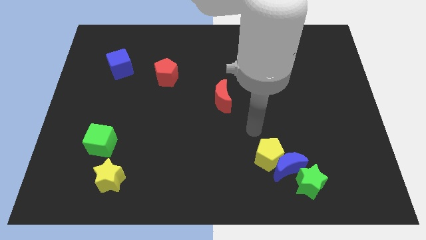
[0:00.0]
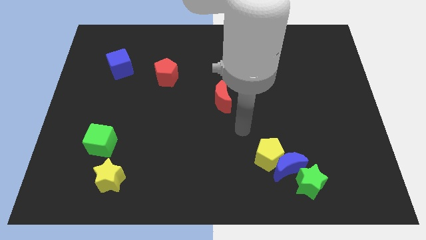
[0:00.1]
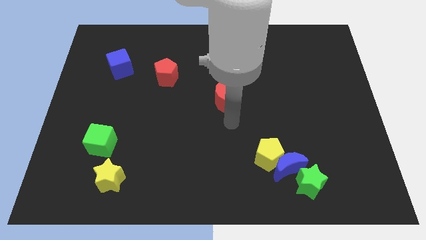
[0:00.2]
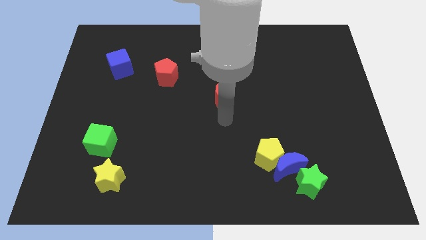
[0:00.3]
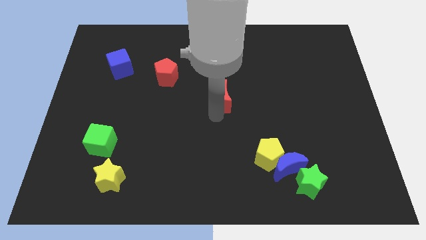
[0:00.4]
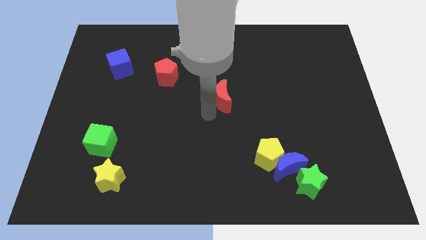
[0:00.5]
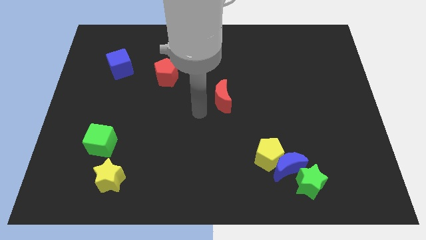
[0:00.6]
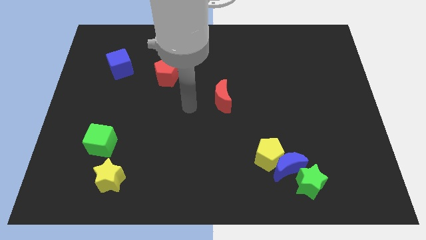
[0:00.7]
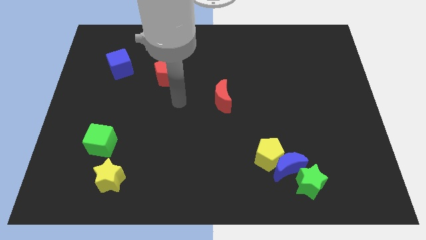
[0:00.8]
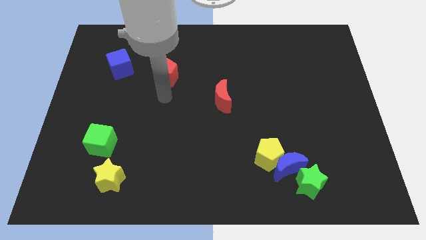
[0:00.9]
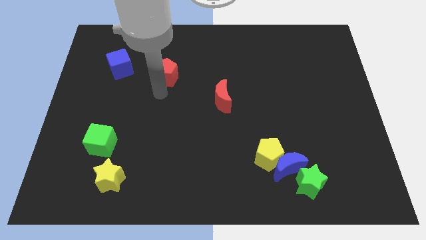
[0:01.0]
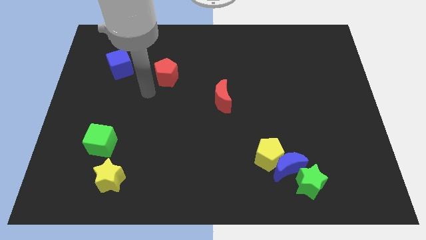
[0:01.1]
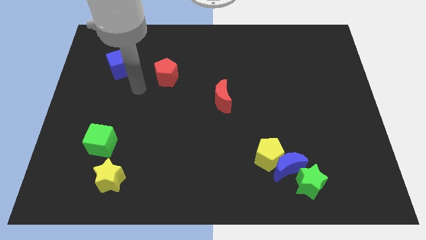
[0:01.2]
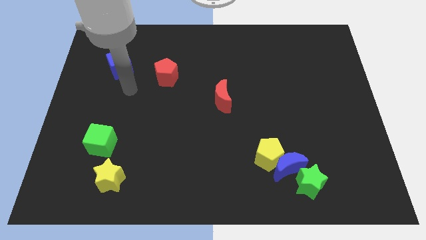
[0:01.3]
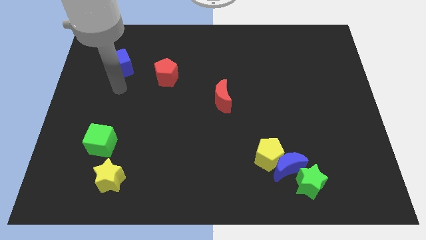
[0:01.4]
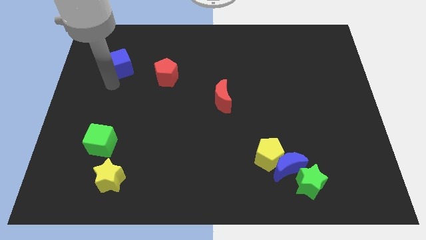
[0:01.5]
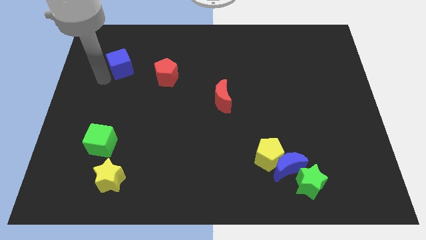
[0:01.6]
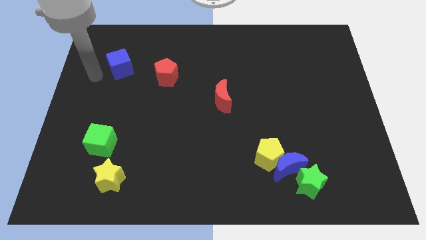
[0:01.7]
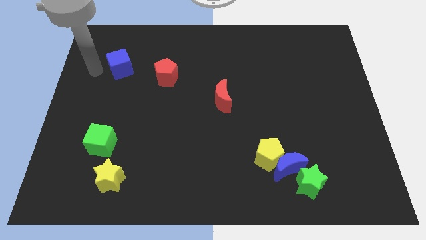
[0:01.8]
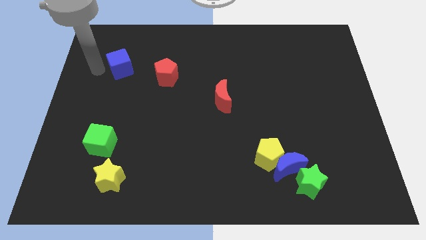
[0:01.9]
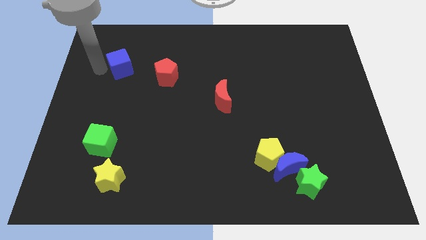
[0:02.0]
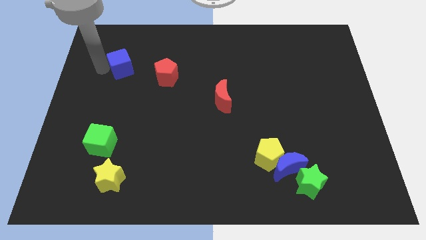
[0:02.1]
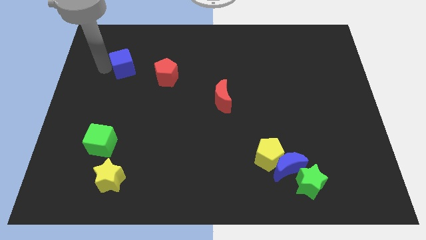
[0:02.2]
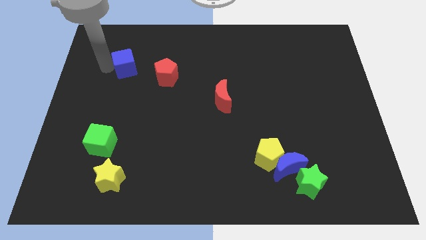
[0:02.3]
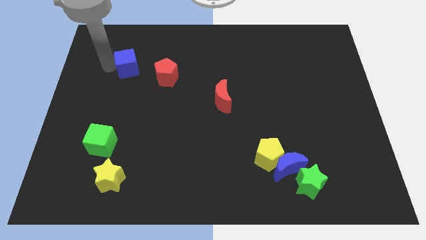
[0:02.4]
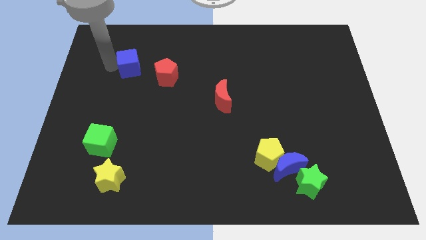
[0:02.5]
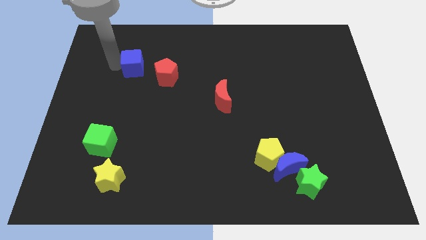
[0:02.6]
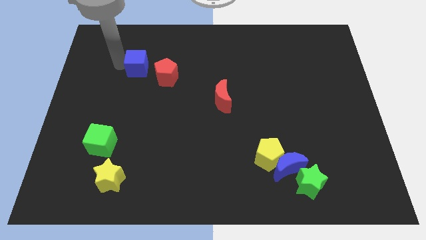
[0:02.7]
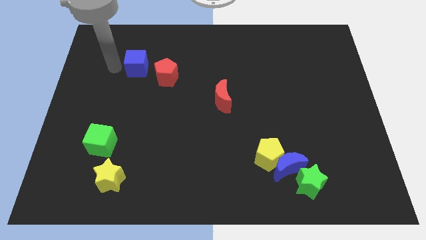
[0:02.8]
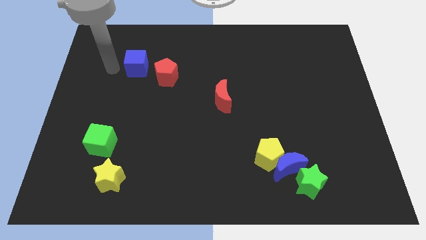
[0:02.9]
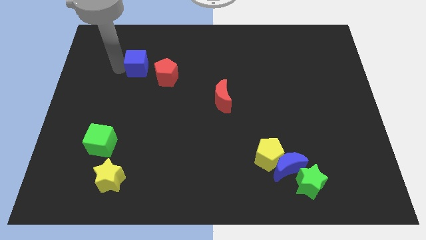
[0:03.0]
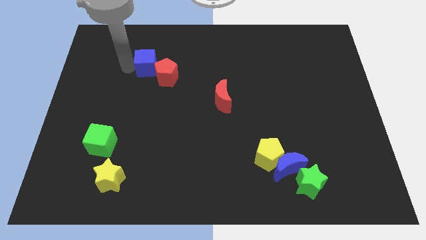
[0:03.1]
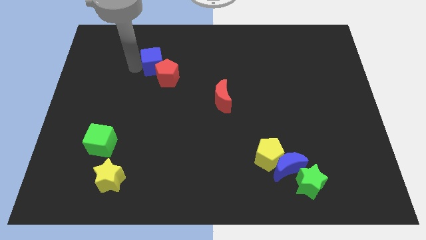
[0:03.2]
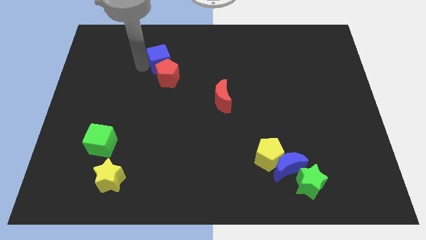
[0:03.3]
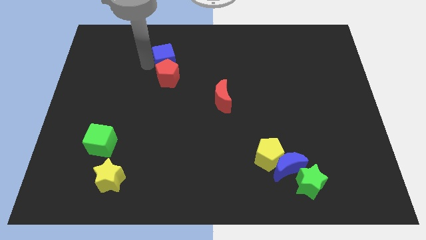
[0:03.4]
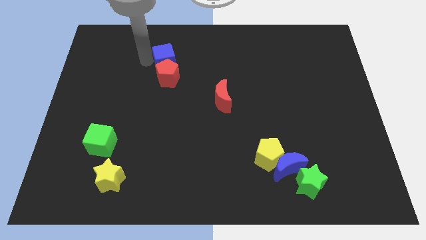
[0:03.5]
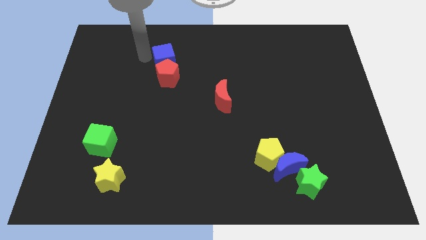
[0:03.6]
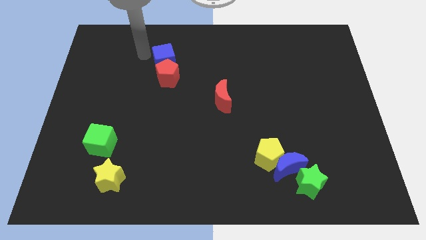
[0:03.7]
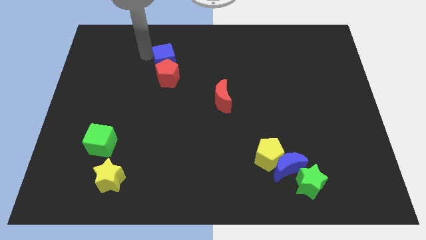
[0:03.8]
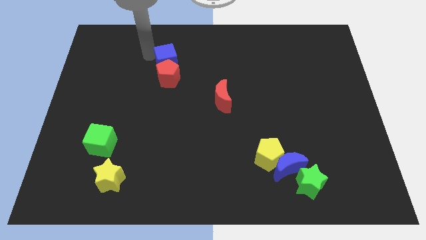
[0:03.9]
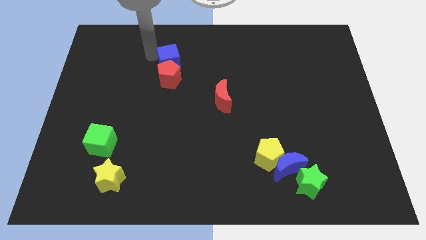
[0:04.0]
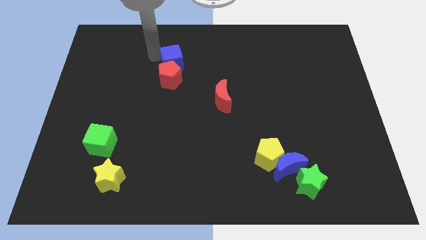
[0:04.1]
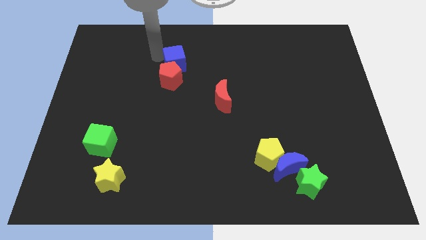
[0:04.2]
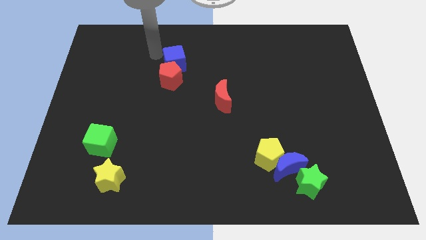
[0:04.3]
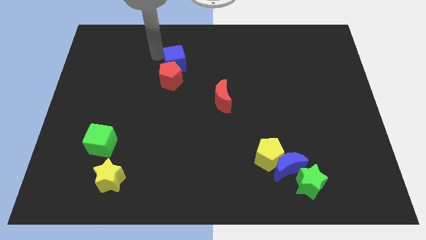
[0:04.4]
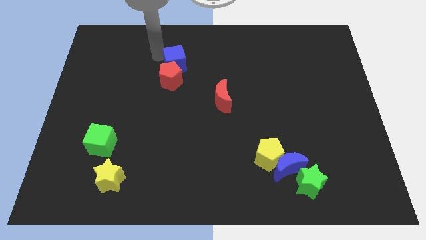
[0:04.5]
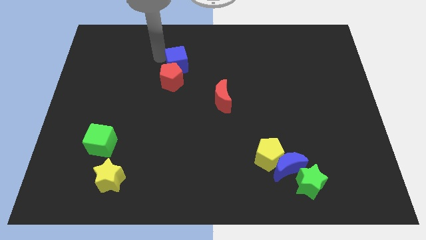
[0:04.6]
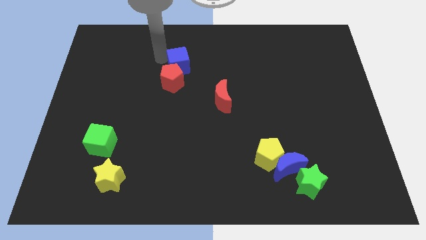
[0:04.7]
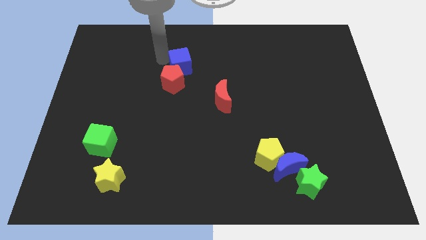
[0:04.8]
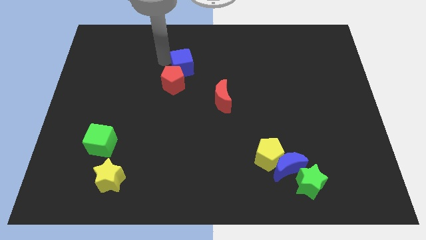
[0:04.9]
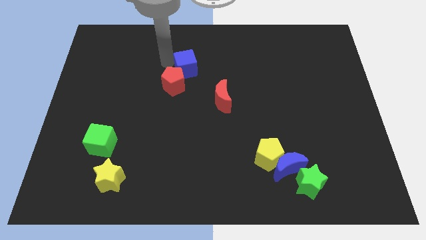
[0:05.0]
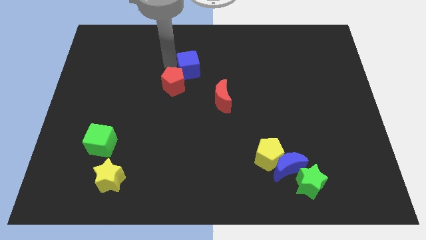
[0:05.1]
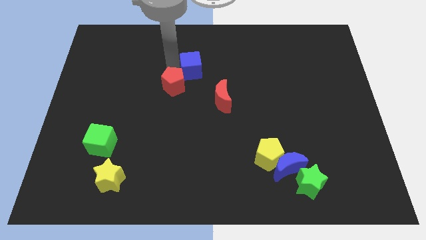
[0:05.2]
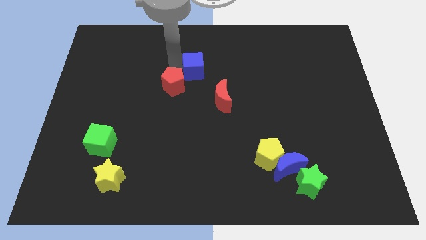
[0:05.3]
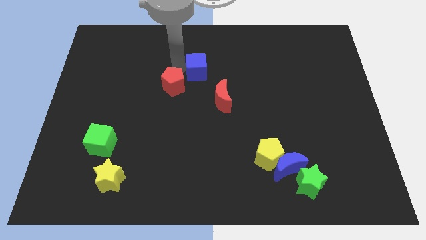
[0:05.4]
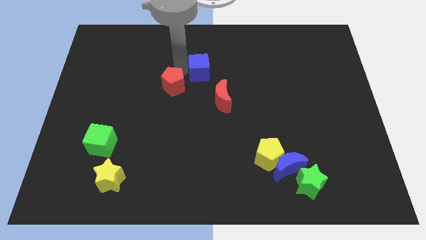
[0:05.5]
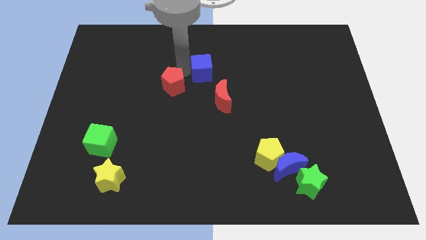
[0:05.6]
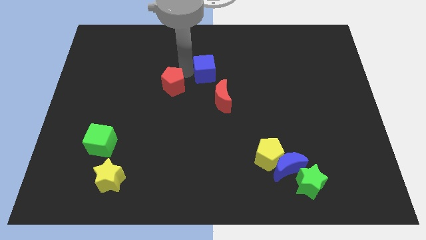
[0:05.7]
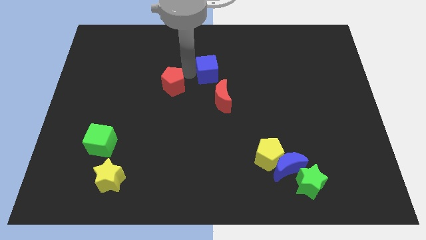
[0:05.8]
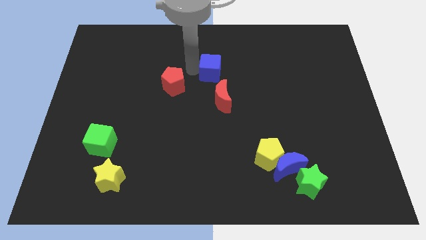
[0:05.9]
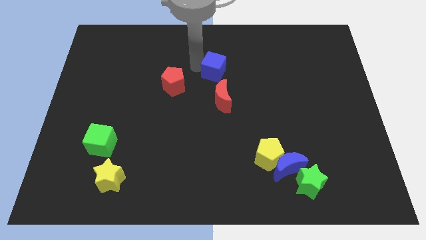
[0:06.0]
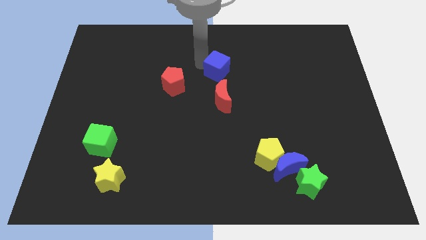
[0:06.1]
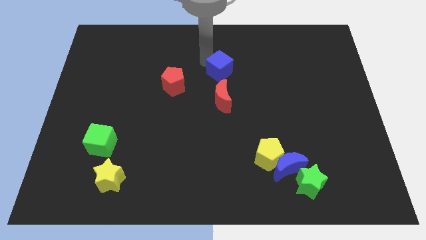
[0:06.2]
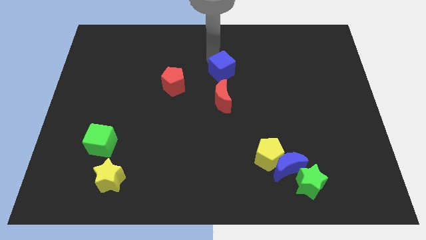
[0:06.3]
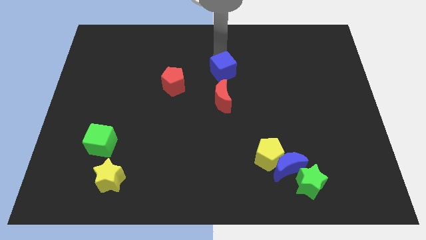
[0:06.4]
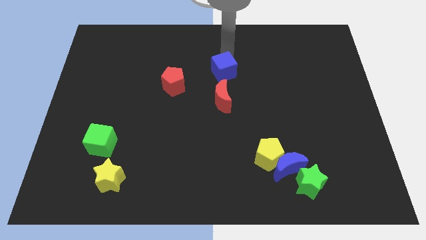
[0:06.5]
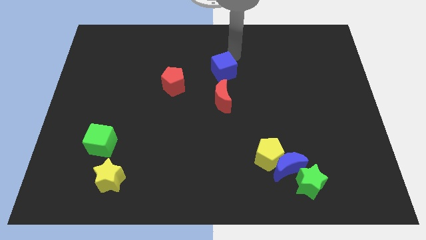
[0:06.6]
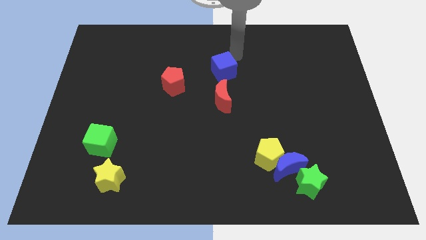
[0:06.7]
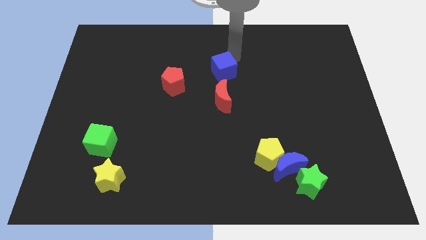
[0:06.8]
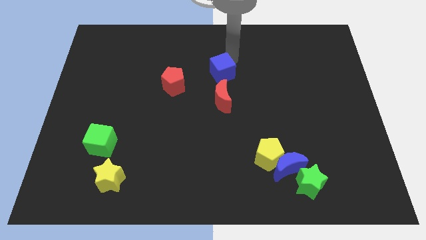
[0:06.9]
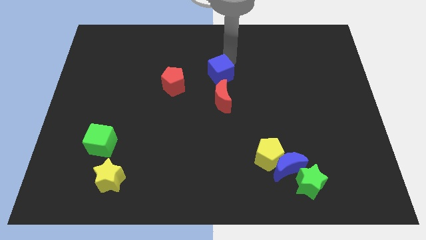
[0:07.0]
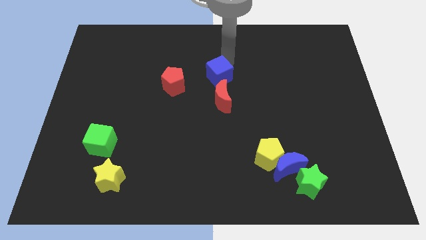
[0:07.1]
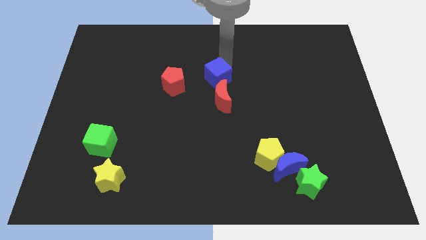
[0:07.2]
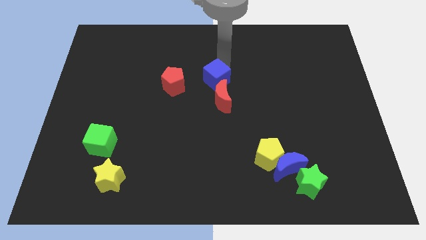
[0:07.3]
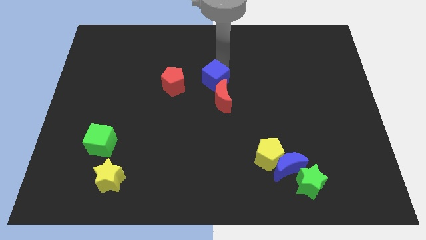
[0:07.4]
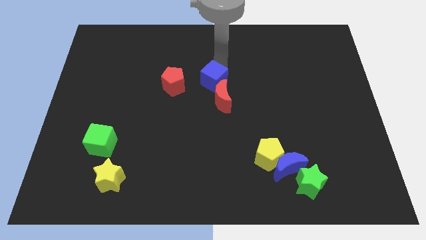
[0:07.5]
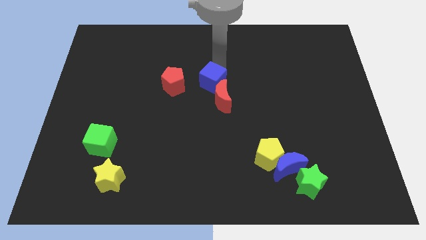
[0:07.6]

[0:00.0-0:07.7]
slide the blue cube towards the red moon
